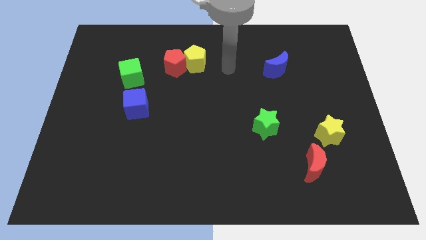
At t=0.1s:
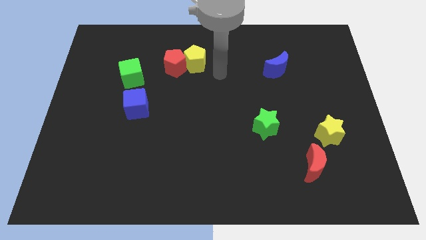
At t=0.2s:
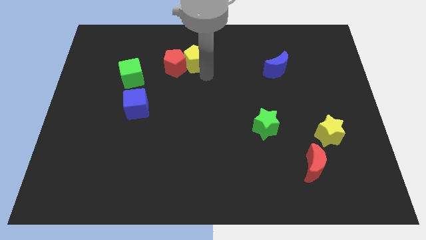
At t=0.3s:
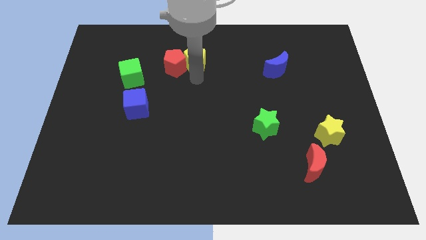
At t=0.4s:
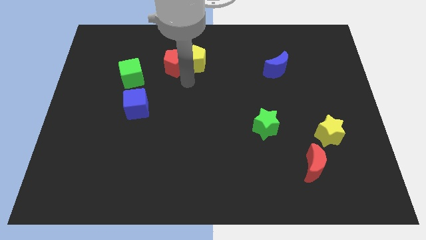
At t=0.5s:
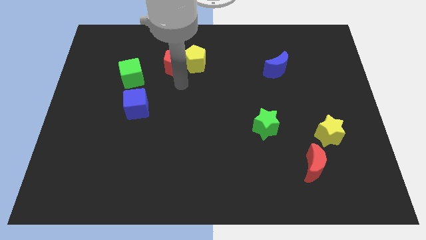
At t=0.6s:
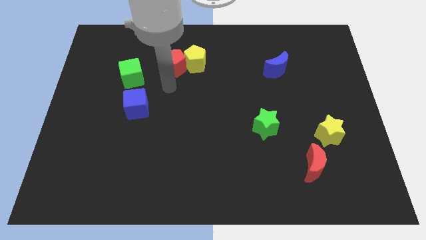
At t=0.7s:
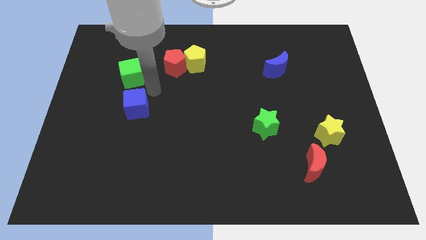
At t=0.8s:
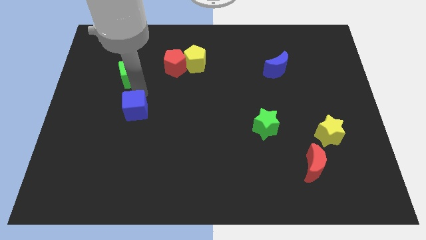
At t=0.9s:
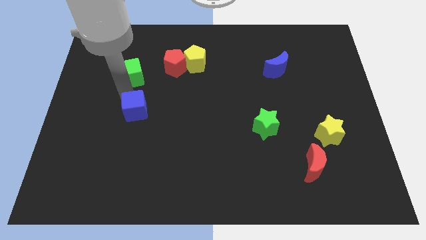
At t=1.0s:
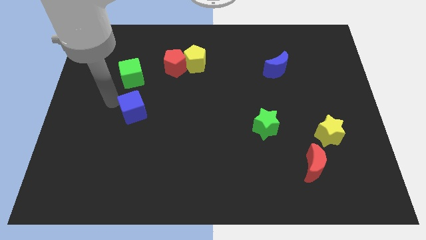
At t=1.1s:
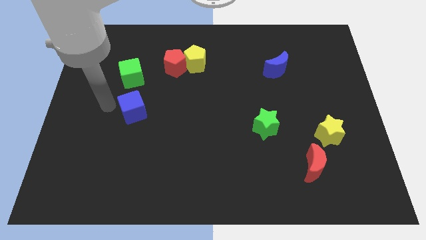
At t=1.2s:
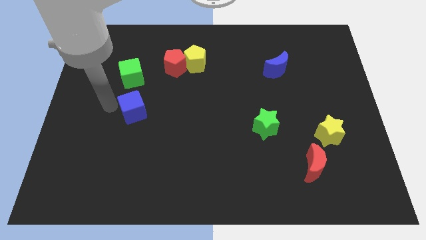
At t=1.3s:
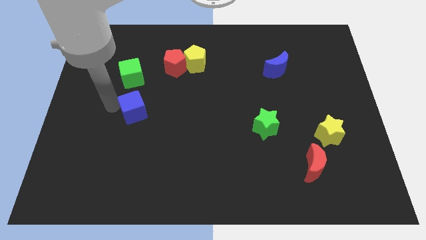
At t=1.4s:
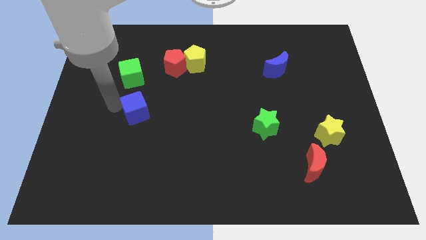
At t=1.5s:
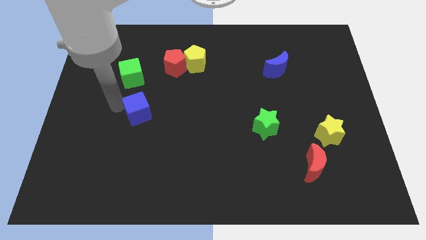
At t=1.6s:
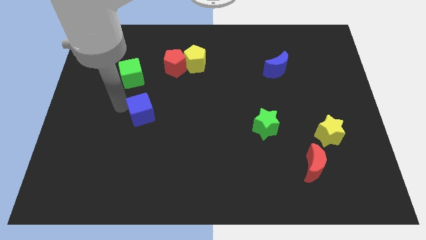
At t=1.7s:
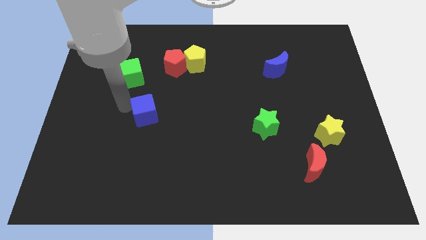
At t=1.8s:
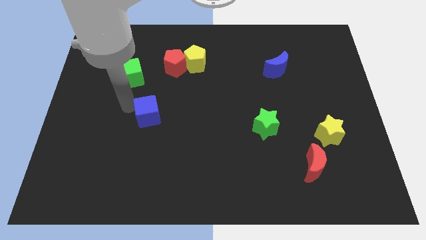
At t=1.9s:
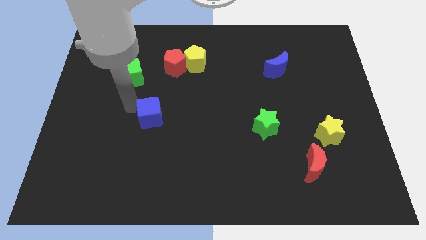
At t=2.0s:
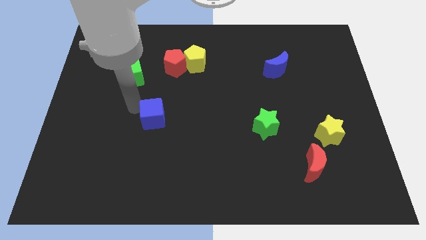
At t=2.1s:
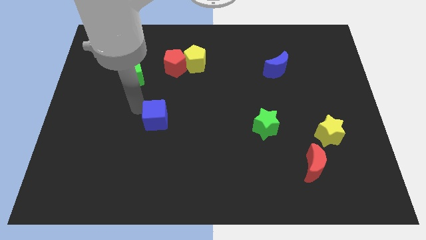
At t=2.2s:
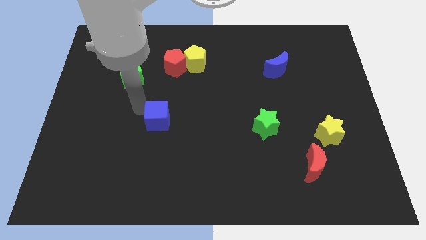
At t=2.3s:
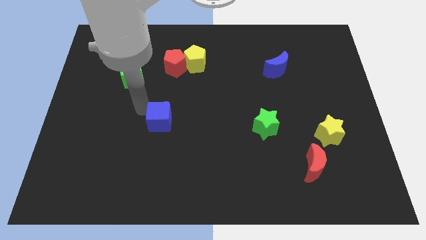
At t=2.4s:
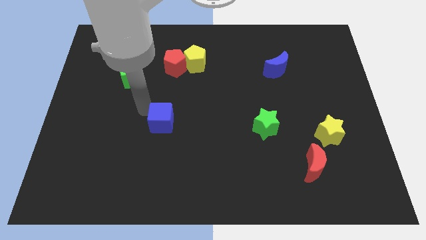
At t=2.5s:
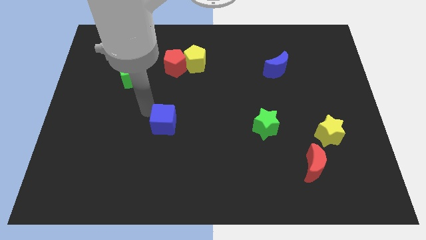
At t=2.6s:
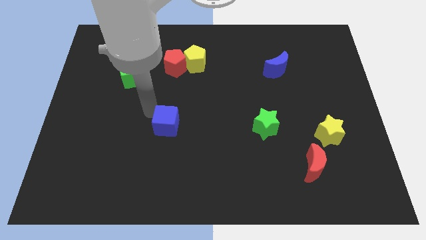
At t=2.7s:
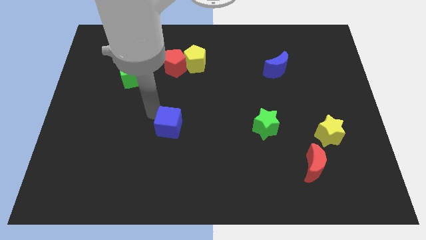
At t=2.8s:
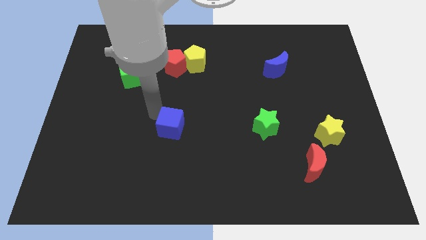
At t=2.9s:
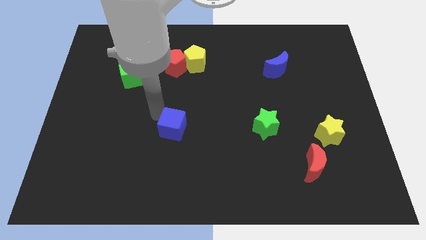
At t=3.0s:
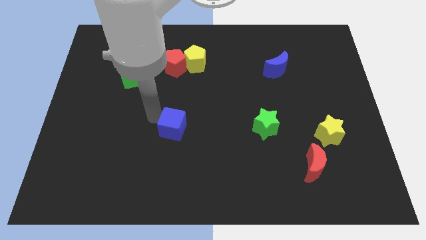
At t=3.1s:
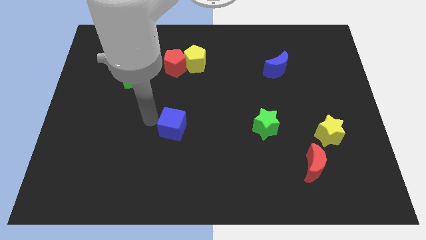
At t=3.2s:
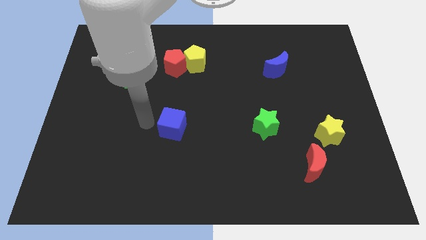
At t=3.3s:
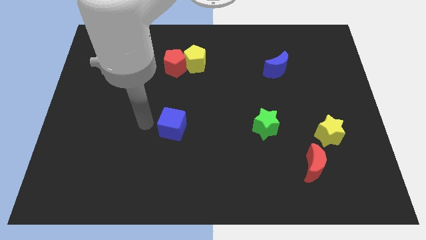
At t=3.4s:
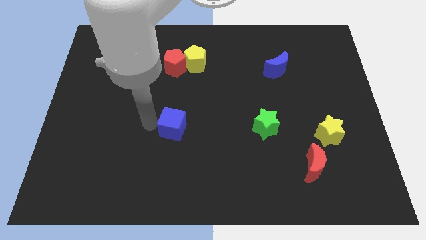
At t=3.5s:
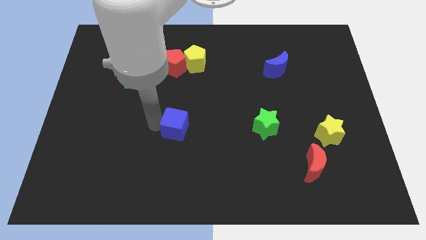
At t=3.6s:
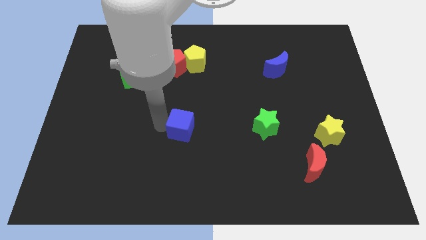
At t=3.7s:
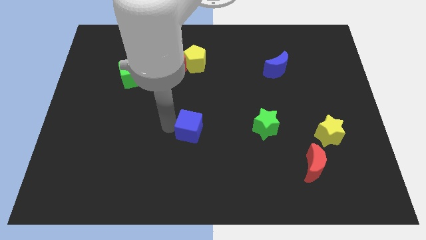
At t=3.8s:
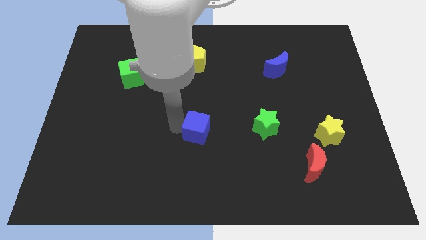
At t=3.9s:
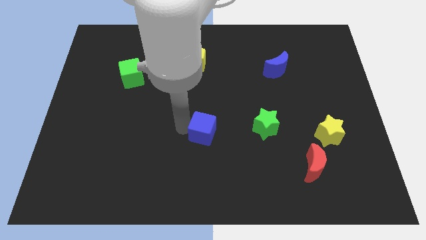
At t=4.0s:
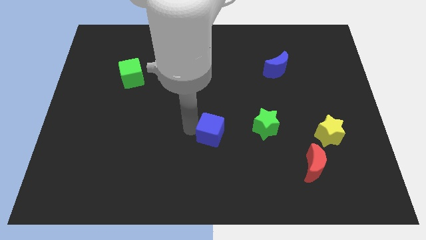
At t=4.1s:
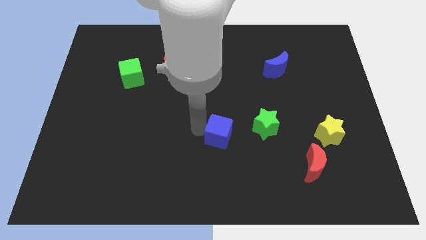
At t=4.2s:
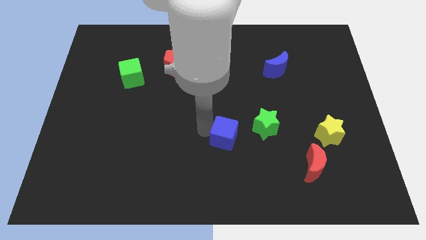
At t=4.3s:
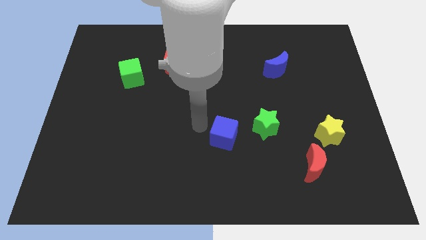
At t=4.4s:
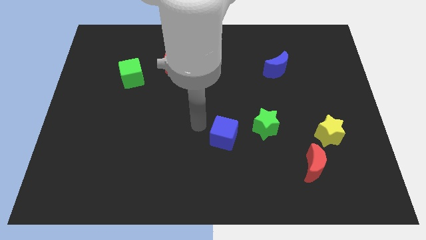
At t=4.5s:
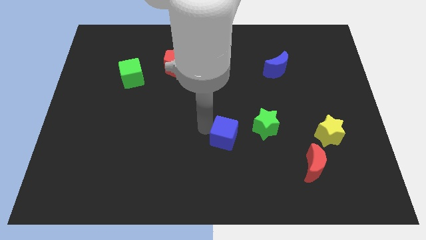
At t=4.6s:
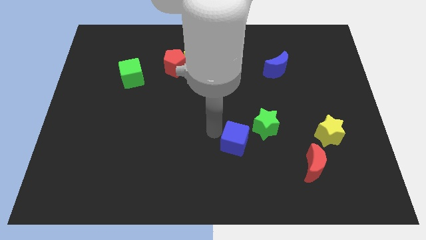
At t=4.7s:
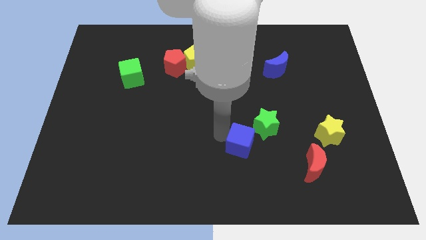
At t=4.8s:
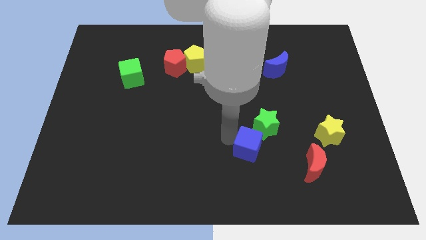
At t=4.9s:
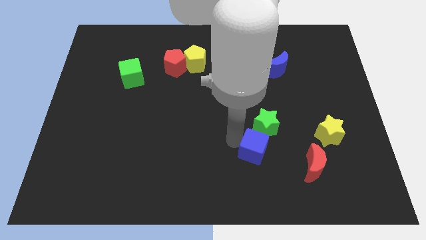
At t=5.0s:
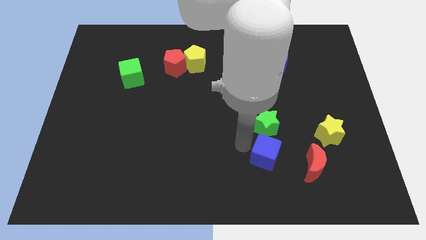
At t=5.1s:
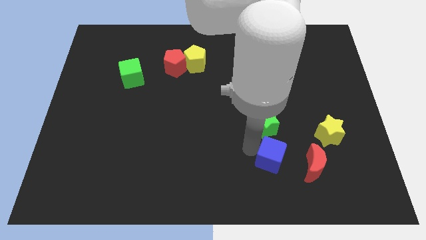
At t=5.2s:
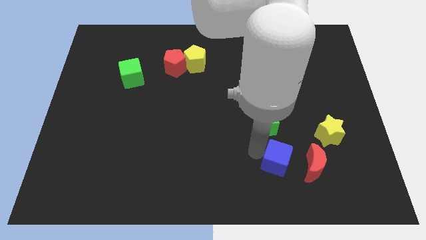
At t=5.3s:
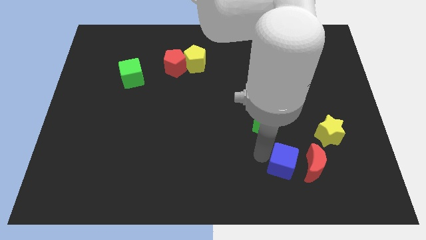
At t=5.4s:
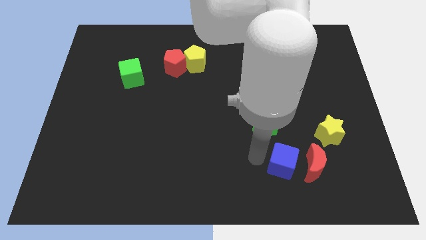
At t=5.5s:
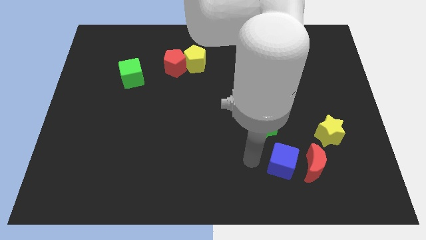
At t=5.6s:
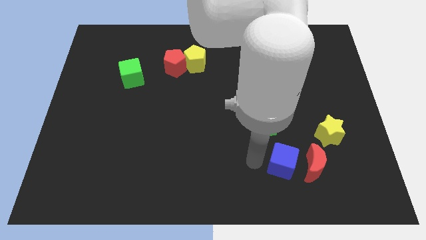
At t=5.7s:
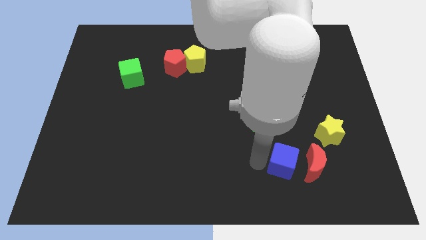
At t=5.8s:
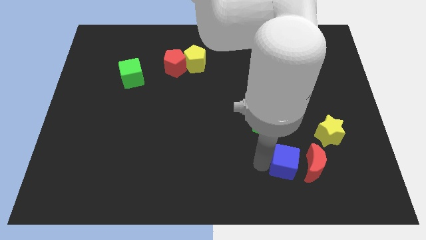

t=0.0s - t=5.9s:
push the blue cube towards the red moon

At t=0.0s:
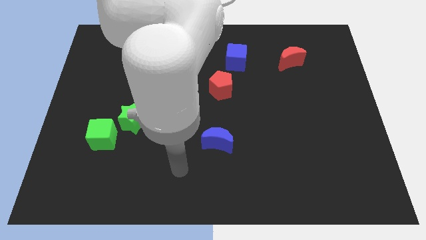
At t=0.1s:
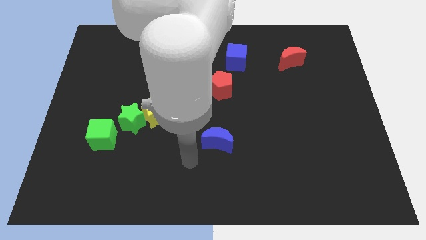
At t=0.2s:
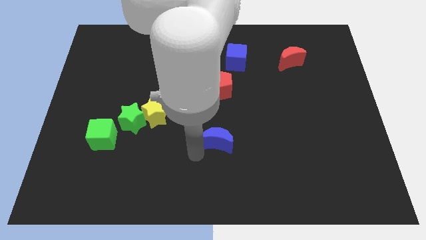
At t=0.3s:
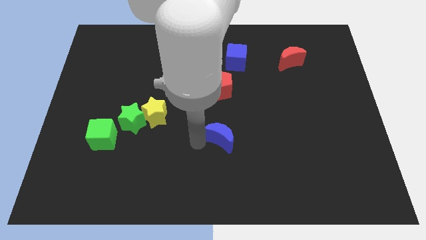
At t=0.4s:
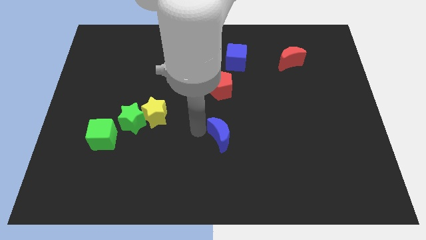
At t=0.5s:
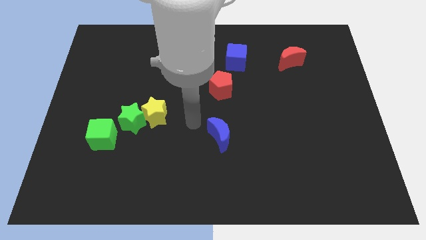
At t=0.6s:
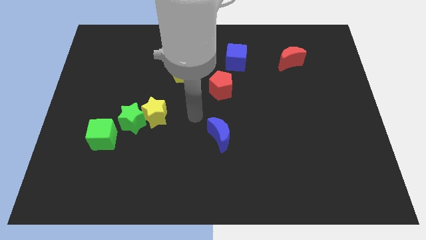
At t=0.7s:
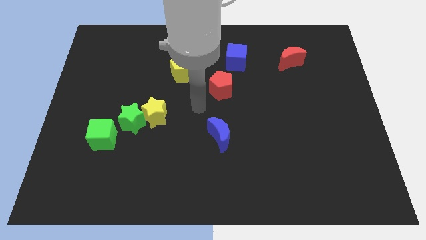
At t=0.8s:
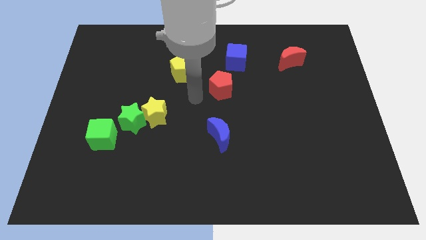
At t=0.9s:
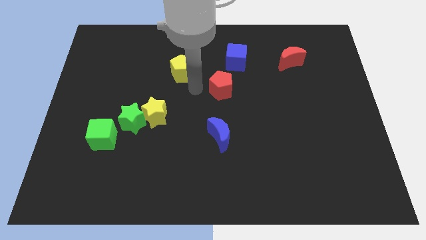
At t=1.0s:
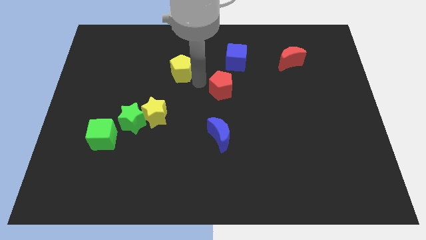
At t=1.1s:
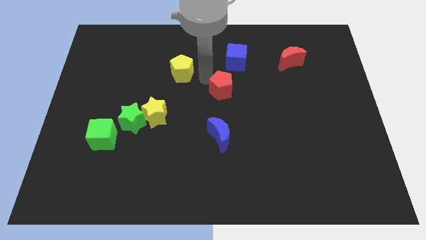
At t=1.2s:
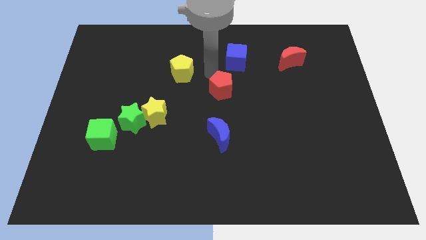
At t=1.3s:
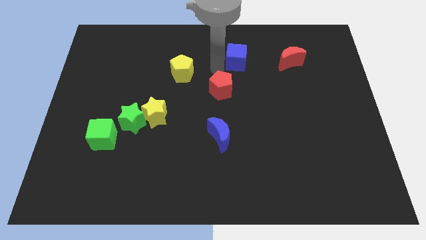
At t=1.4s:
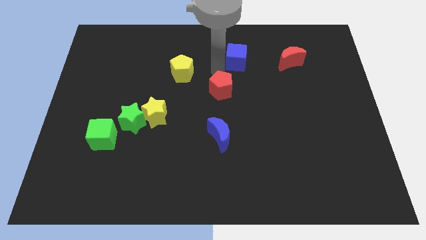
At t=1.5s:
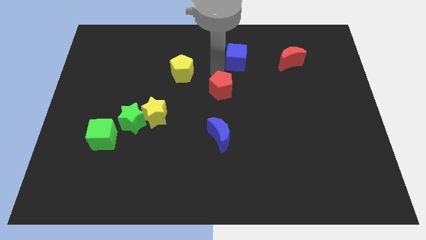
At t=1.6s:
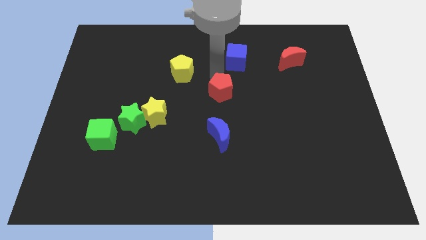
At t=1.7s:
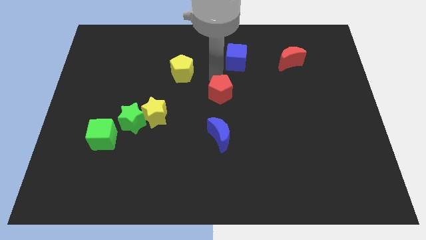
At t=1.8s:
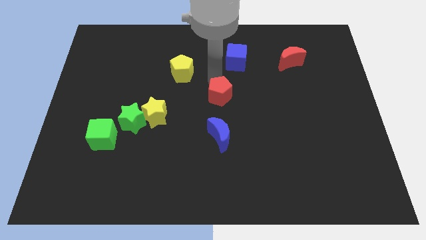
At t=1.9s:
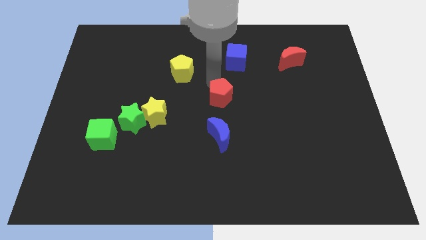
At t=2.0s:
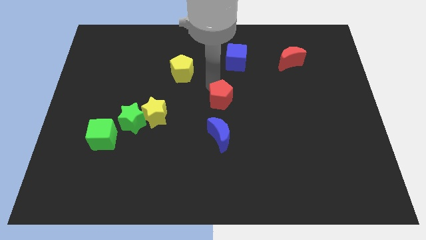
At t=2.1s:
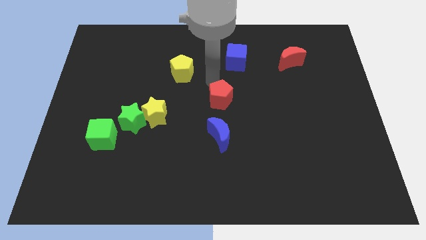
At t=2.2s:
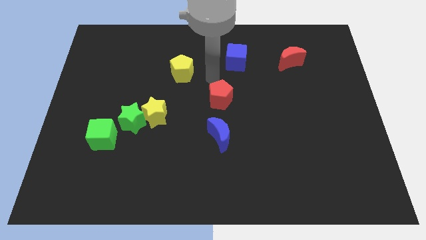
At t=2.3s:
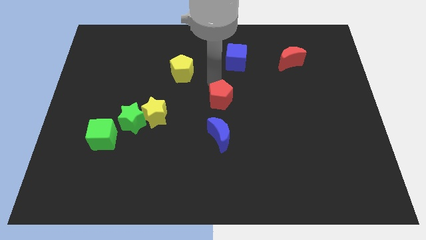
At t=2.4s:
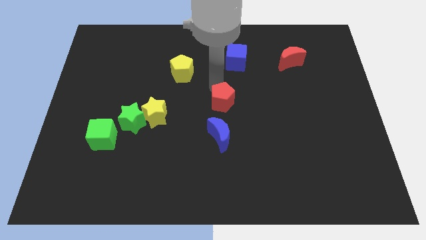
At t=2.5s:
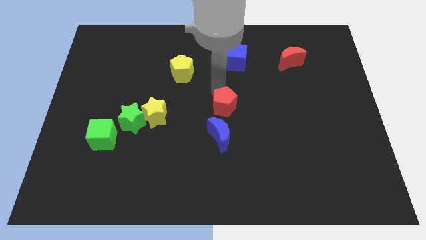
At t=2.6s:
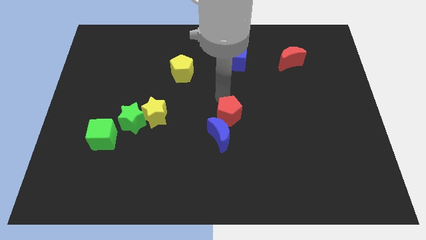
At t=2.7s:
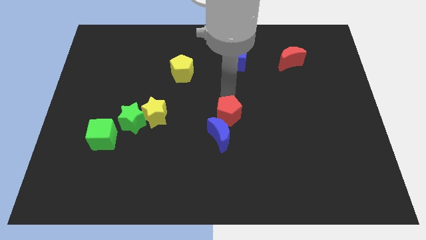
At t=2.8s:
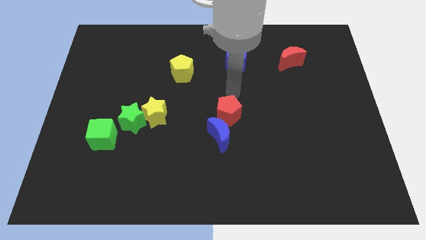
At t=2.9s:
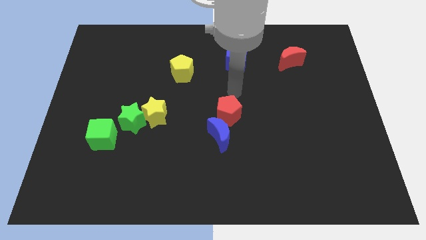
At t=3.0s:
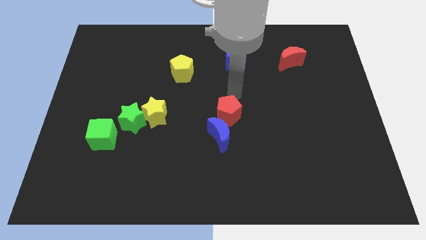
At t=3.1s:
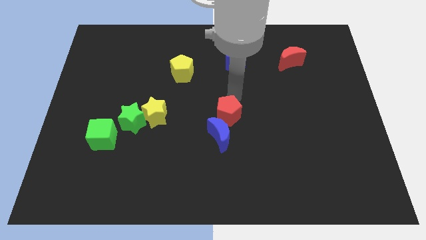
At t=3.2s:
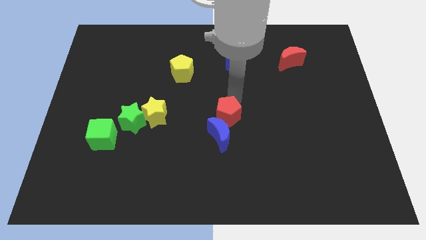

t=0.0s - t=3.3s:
slide the red pentagon close to the blue moon
